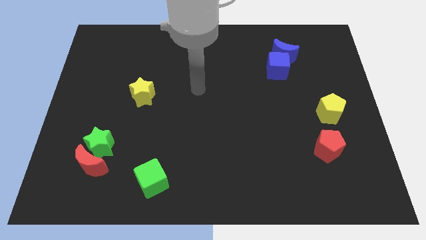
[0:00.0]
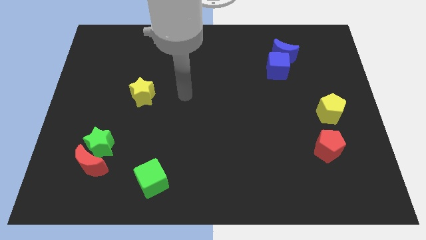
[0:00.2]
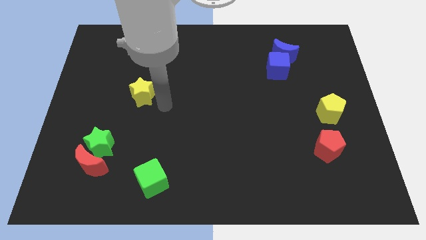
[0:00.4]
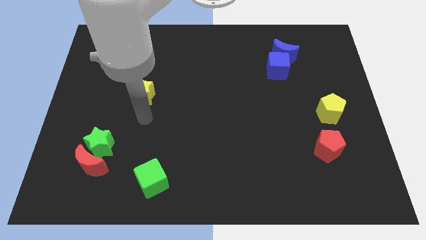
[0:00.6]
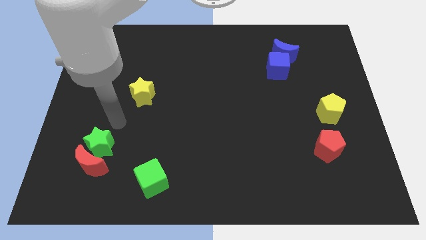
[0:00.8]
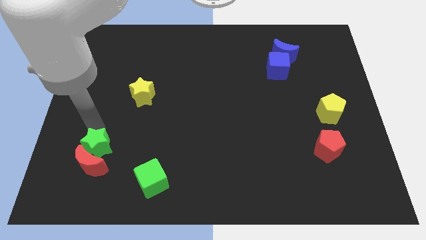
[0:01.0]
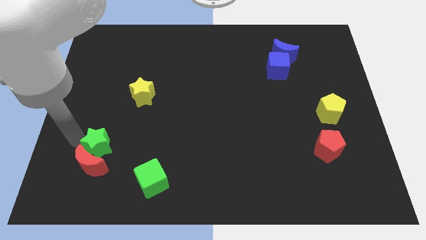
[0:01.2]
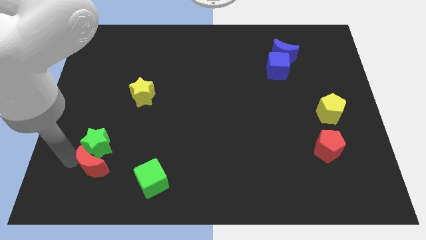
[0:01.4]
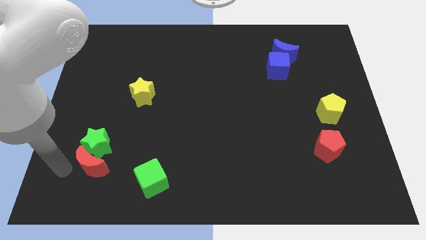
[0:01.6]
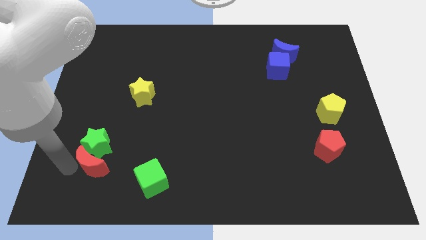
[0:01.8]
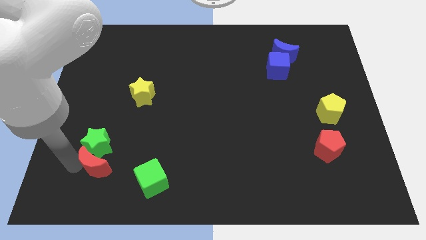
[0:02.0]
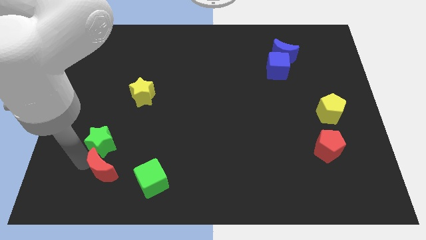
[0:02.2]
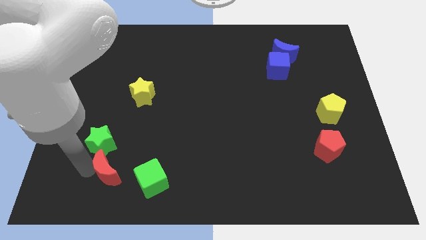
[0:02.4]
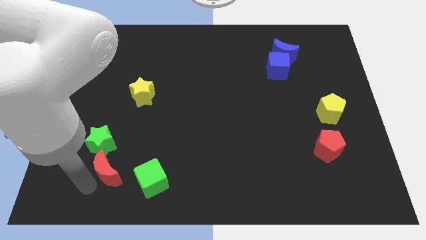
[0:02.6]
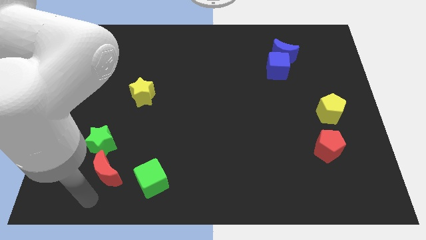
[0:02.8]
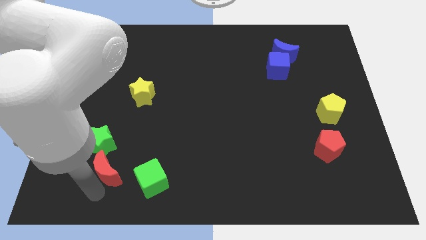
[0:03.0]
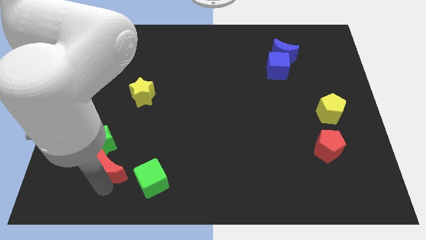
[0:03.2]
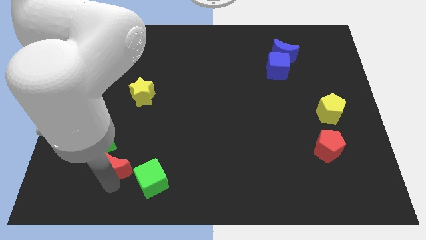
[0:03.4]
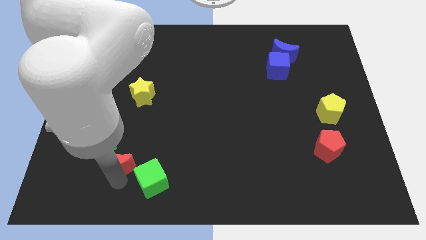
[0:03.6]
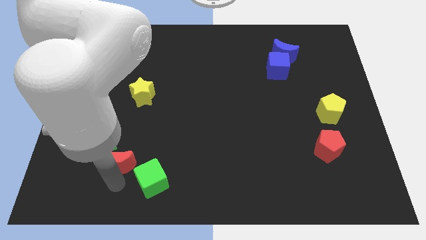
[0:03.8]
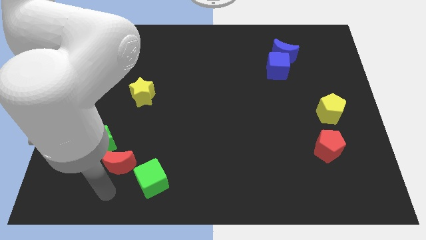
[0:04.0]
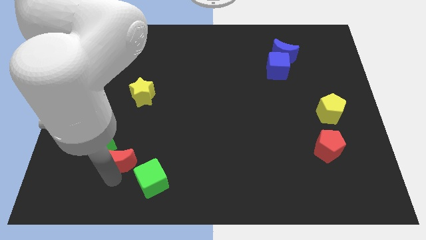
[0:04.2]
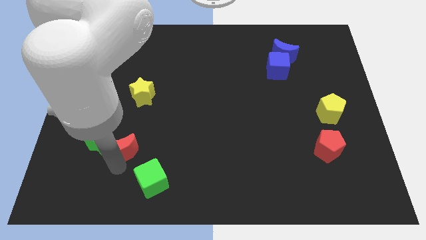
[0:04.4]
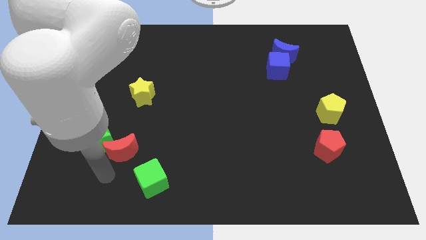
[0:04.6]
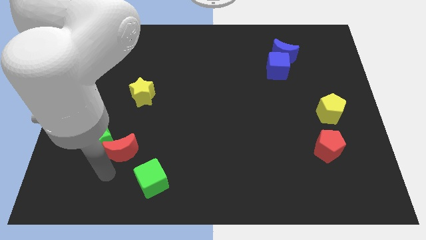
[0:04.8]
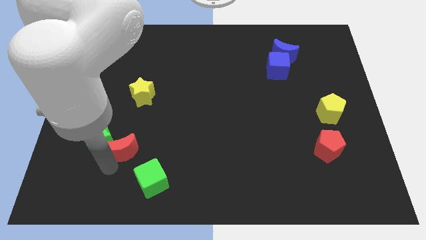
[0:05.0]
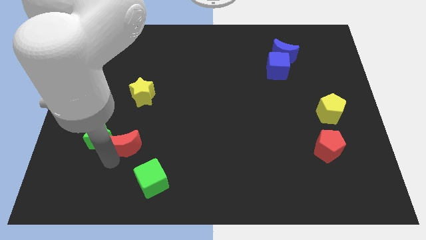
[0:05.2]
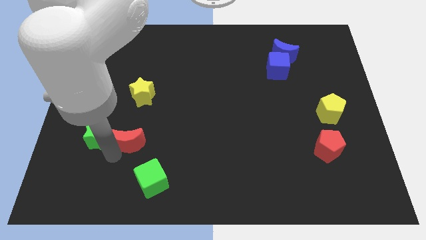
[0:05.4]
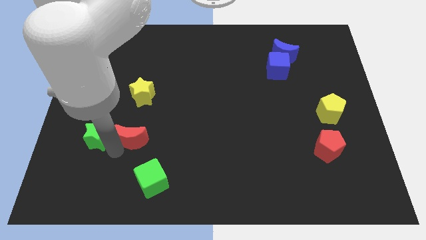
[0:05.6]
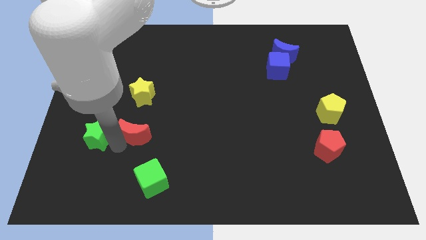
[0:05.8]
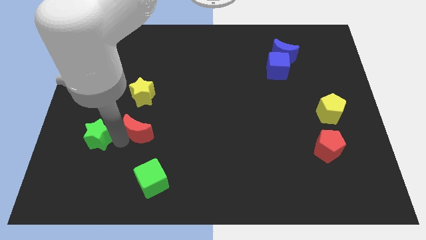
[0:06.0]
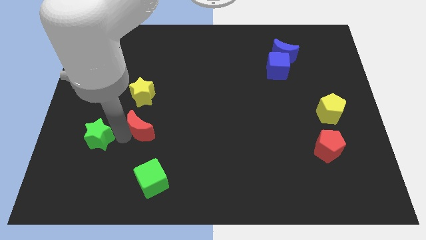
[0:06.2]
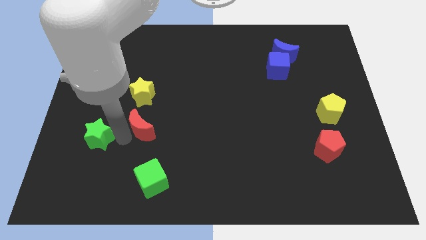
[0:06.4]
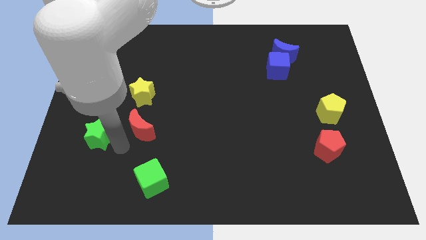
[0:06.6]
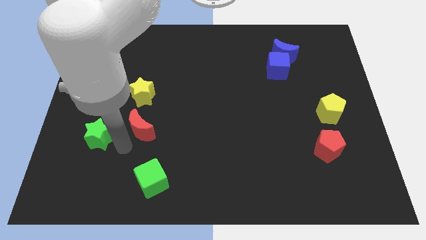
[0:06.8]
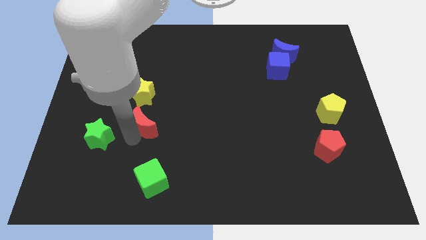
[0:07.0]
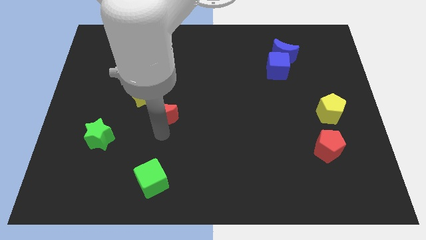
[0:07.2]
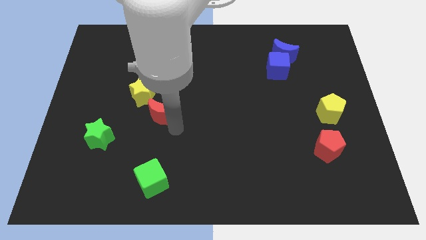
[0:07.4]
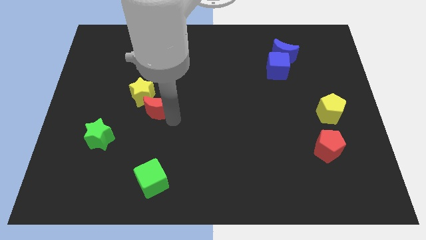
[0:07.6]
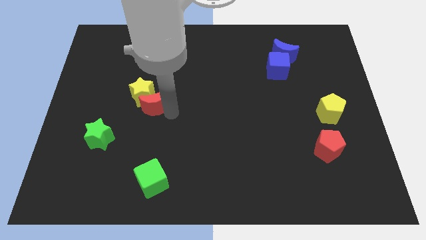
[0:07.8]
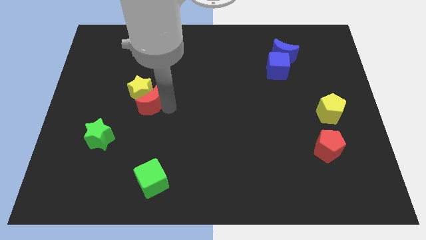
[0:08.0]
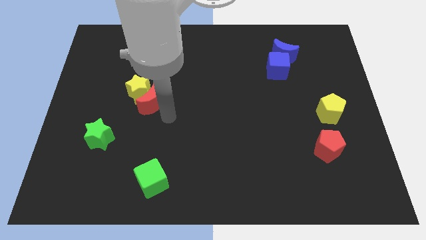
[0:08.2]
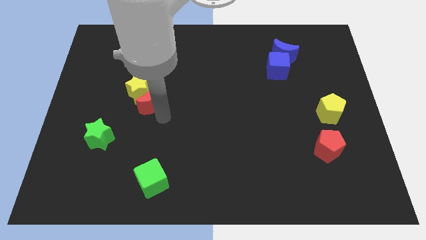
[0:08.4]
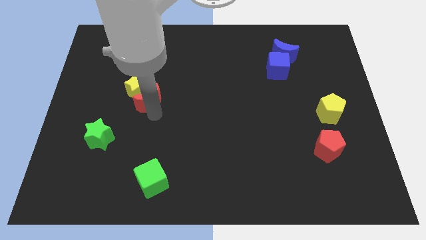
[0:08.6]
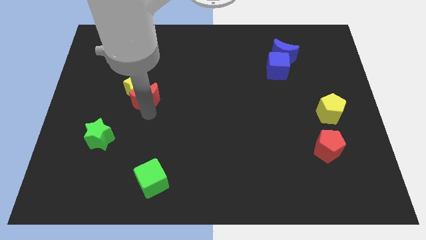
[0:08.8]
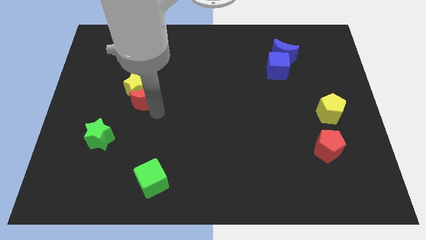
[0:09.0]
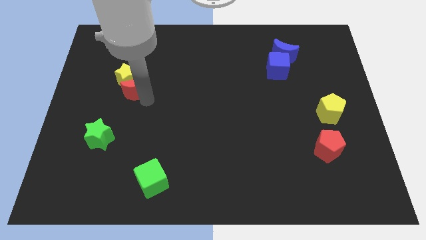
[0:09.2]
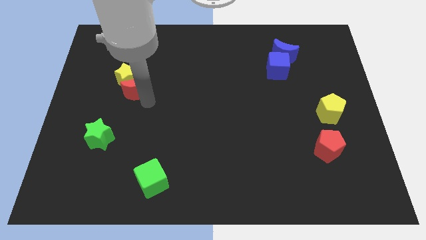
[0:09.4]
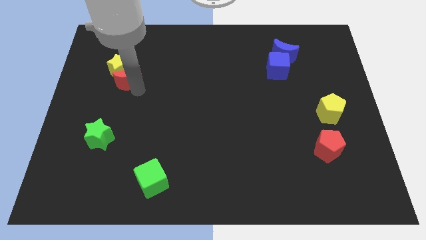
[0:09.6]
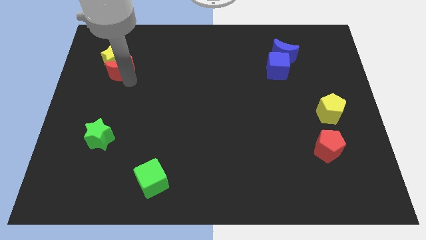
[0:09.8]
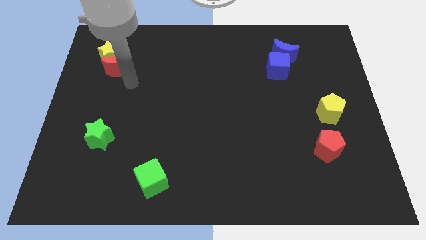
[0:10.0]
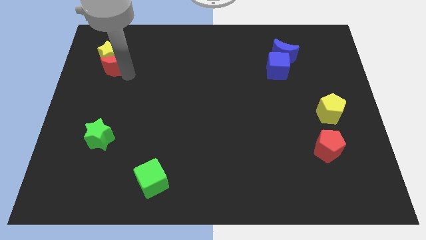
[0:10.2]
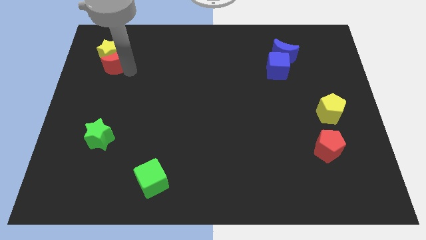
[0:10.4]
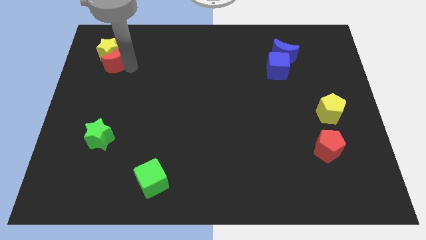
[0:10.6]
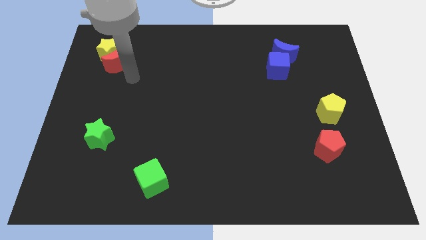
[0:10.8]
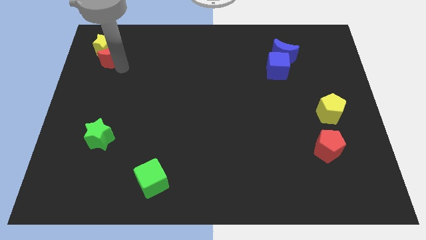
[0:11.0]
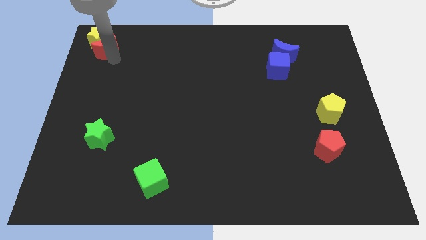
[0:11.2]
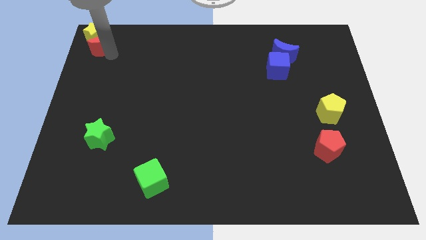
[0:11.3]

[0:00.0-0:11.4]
slide the red moon to the top left
